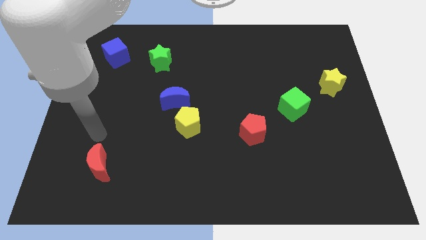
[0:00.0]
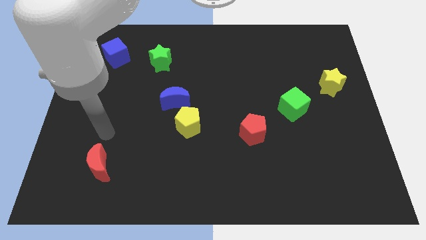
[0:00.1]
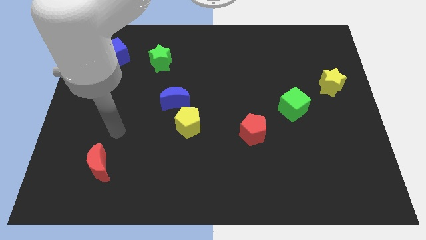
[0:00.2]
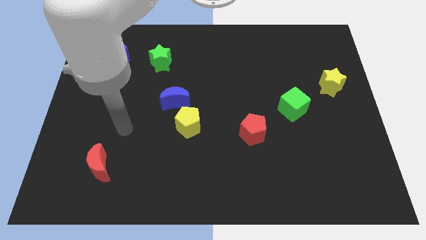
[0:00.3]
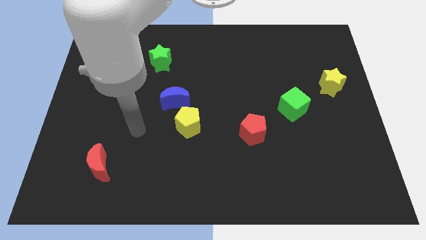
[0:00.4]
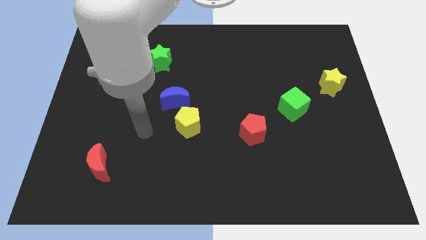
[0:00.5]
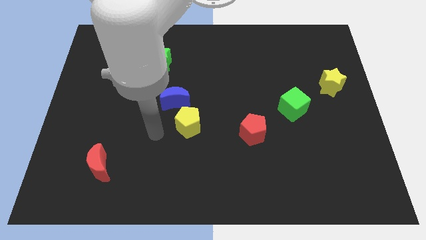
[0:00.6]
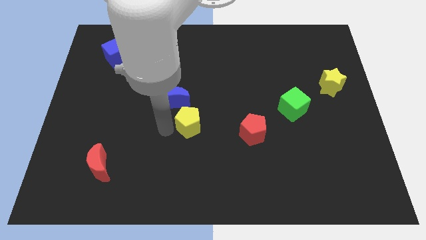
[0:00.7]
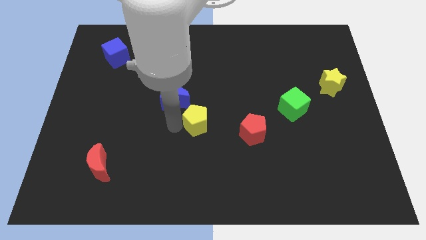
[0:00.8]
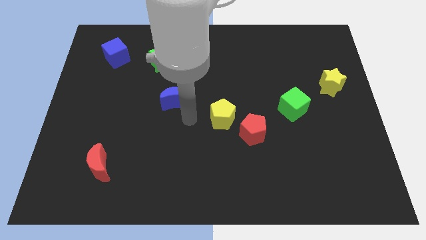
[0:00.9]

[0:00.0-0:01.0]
move the blue moon away from the yellow pentagon

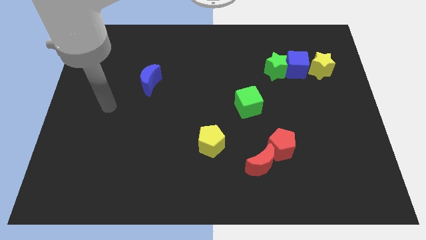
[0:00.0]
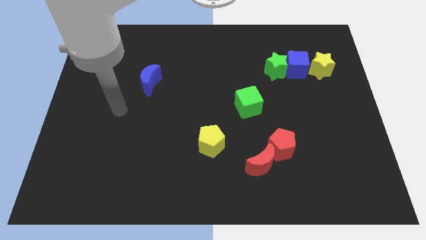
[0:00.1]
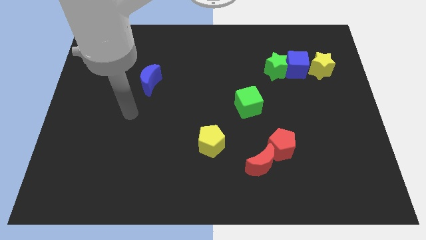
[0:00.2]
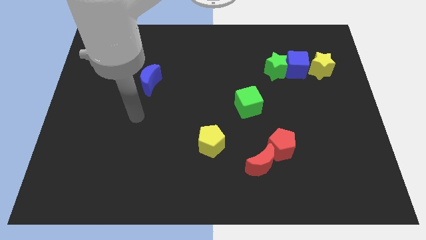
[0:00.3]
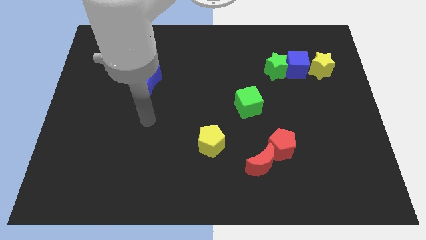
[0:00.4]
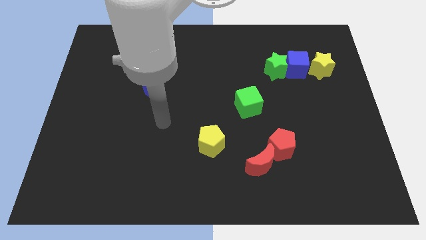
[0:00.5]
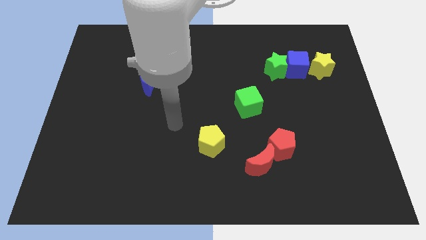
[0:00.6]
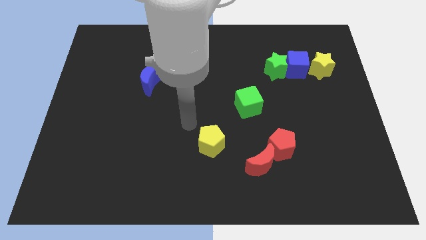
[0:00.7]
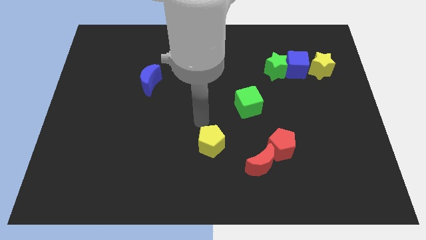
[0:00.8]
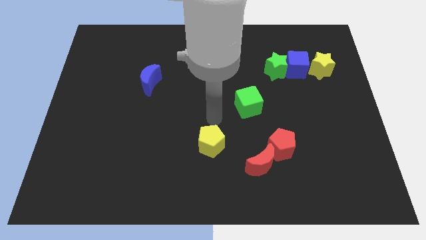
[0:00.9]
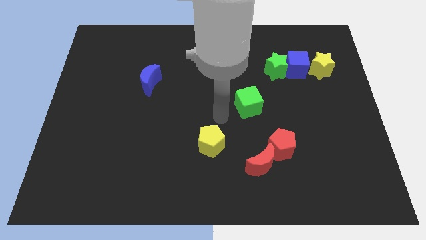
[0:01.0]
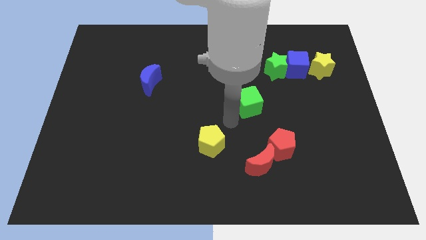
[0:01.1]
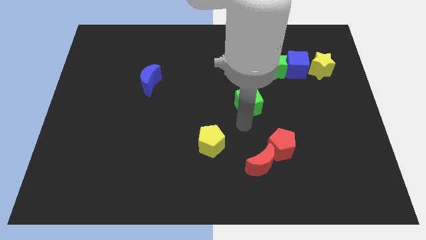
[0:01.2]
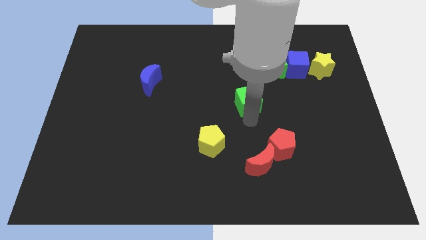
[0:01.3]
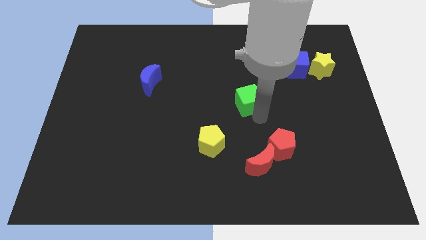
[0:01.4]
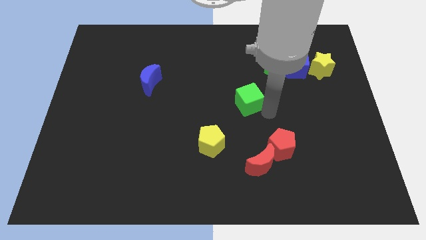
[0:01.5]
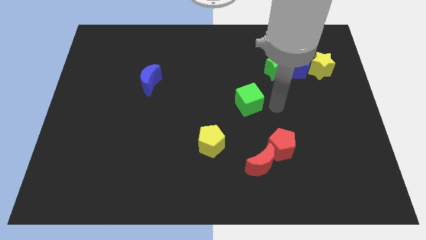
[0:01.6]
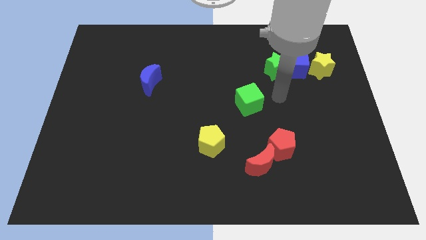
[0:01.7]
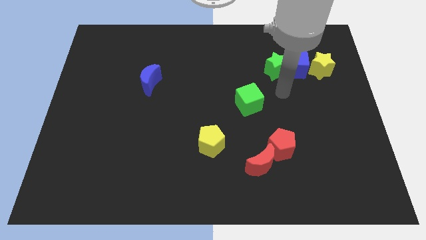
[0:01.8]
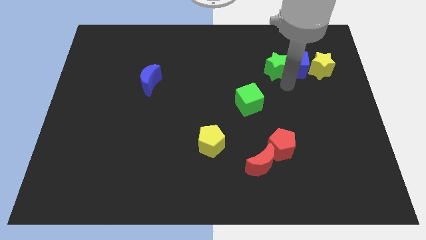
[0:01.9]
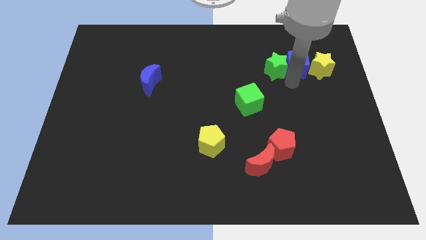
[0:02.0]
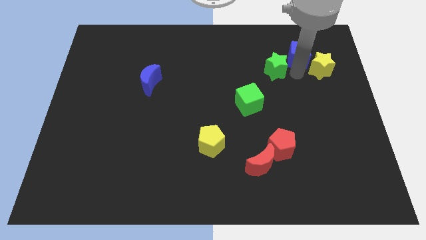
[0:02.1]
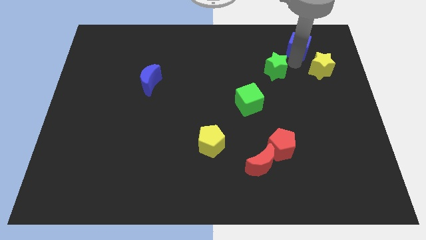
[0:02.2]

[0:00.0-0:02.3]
pull the green star apart from the blue cube

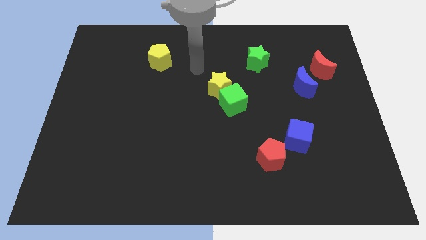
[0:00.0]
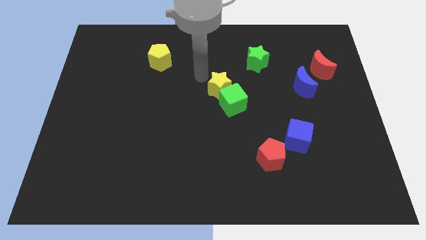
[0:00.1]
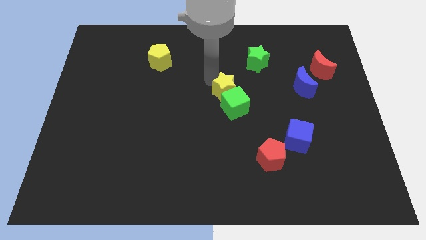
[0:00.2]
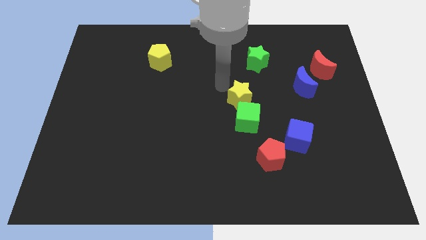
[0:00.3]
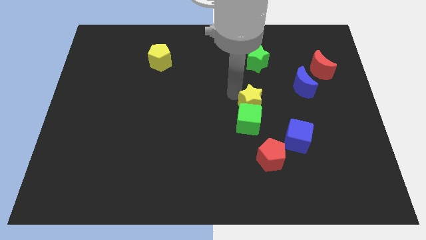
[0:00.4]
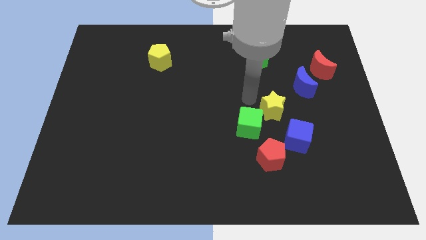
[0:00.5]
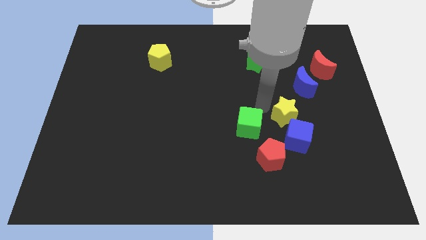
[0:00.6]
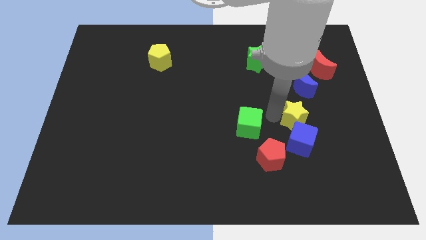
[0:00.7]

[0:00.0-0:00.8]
separate the green cube from the yellow star

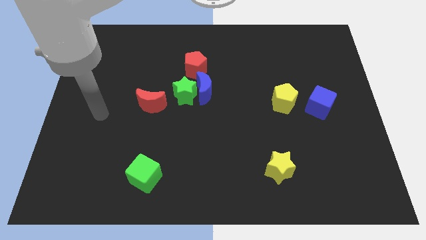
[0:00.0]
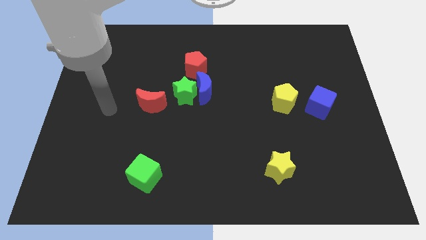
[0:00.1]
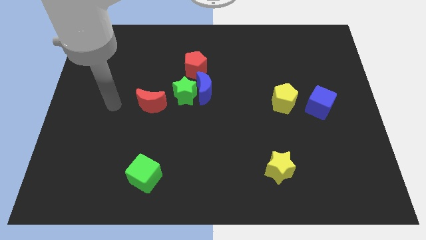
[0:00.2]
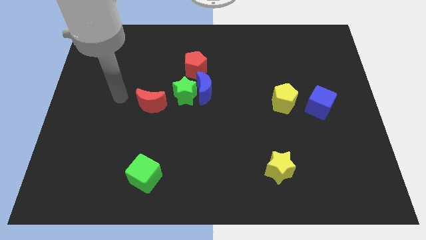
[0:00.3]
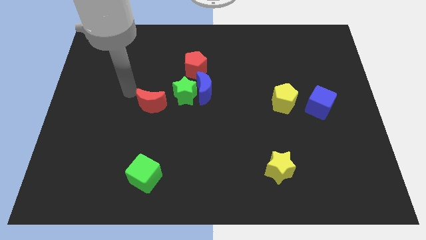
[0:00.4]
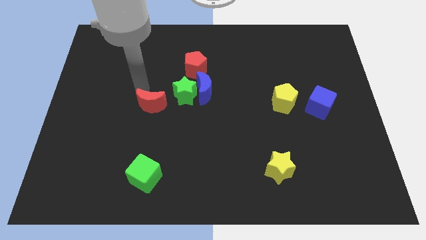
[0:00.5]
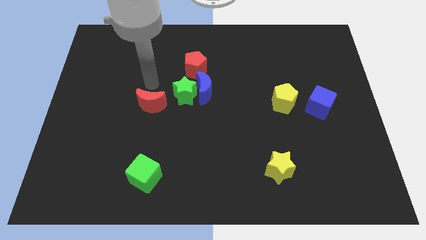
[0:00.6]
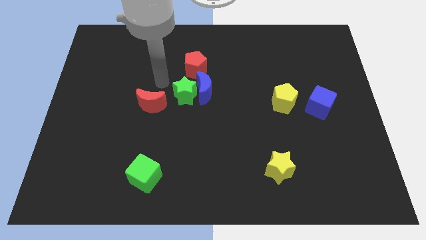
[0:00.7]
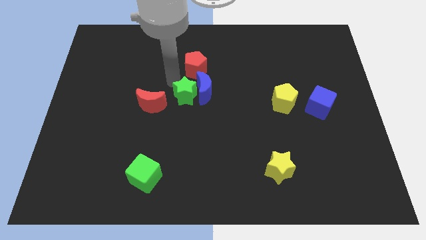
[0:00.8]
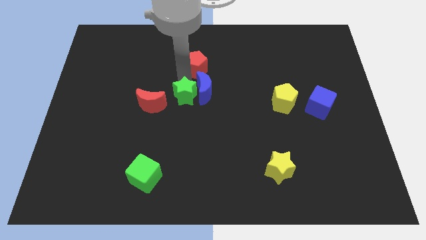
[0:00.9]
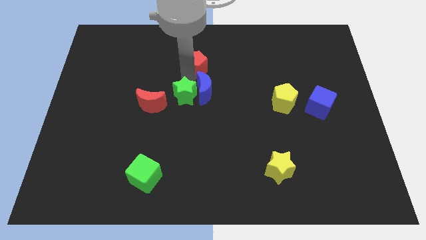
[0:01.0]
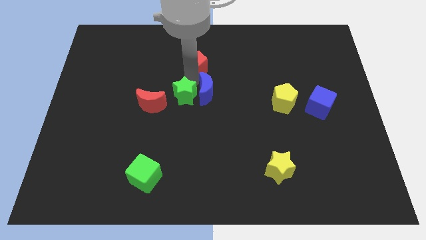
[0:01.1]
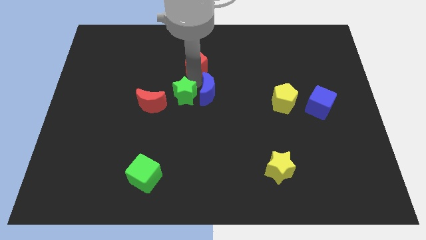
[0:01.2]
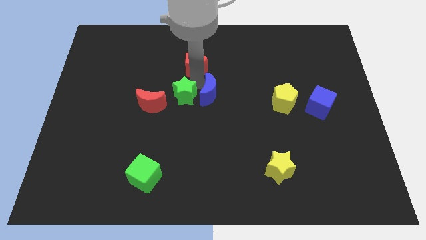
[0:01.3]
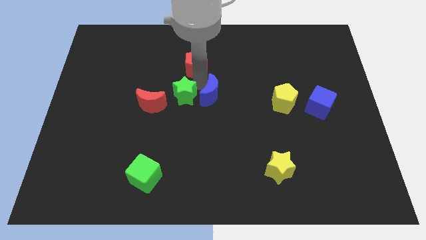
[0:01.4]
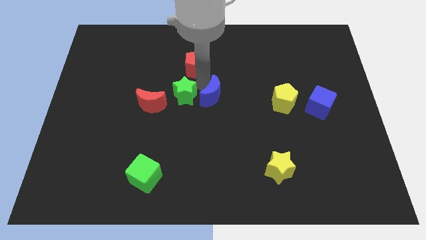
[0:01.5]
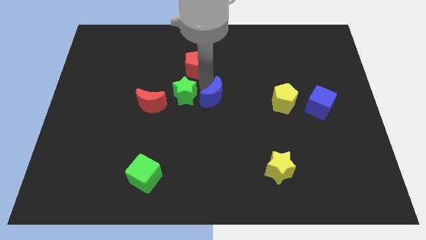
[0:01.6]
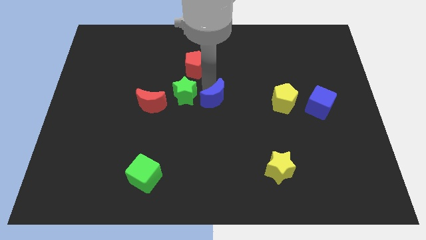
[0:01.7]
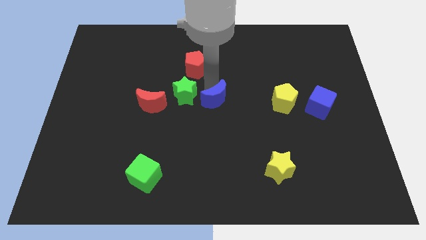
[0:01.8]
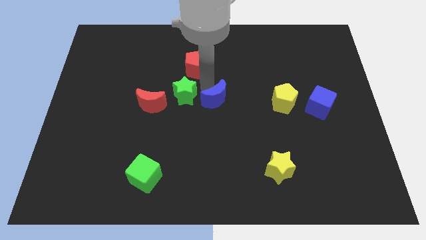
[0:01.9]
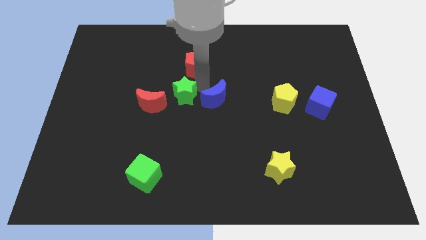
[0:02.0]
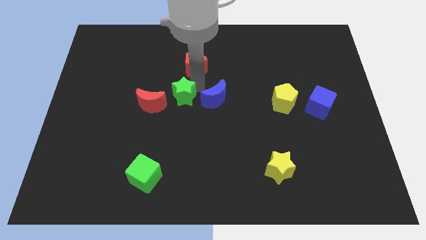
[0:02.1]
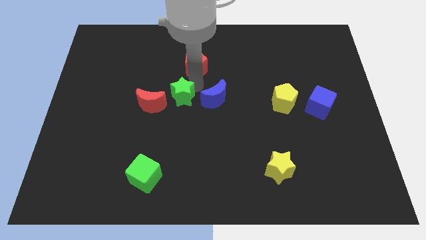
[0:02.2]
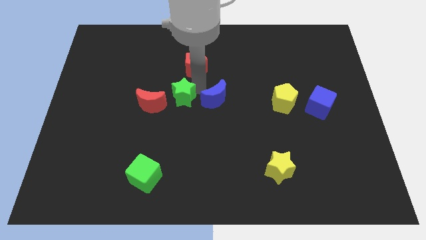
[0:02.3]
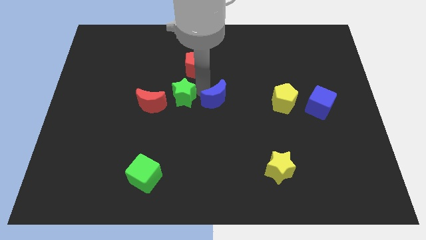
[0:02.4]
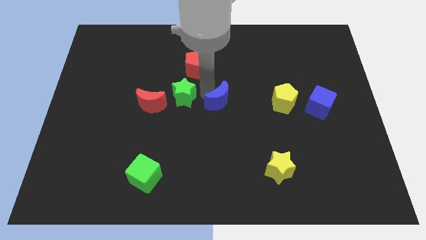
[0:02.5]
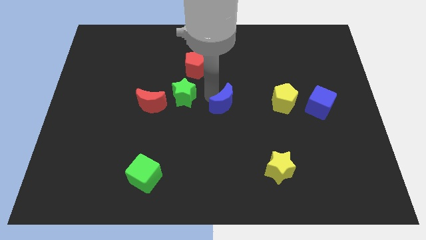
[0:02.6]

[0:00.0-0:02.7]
separate the blue moon from the green star and red pentagon

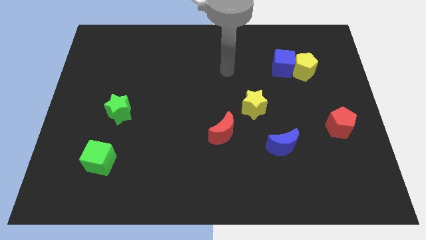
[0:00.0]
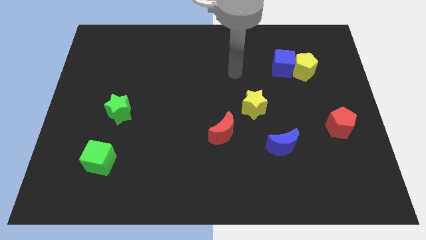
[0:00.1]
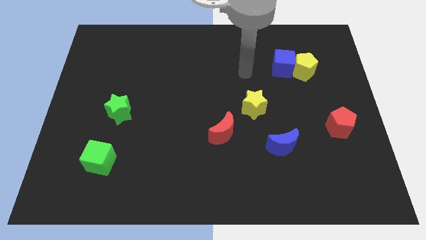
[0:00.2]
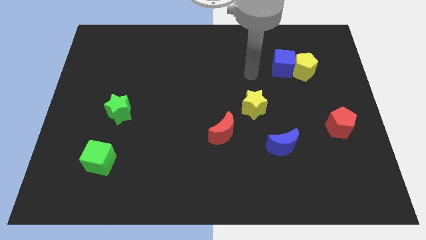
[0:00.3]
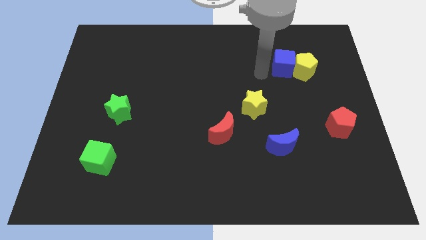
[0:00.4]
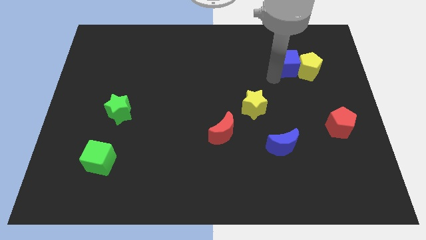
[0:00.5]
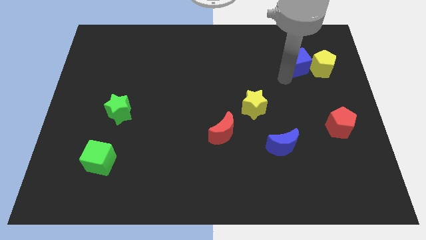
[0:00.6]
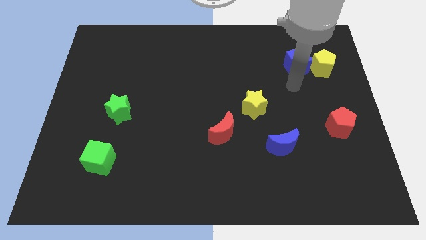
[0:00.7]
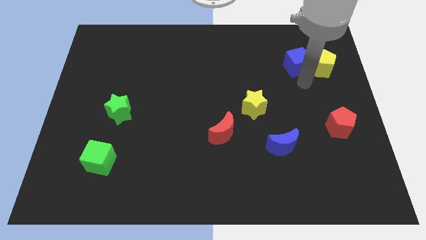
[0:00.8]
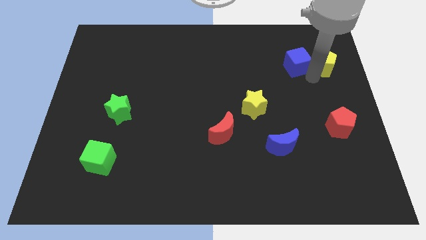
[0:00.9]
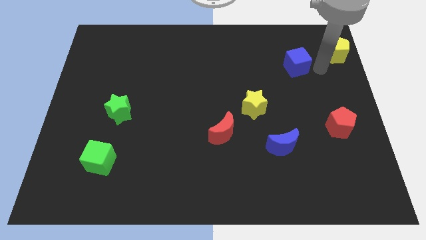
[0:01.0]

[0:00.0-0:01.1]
move the blue cube away from the yellow pentagon

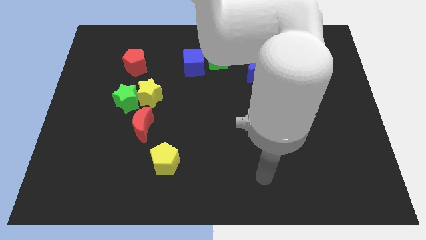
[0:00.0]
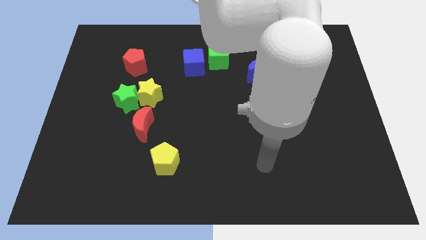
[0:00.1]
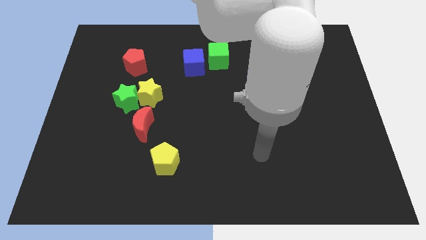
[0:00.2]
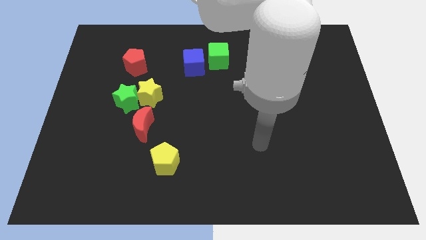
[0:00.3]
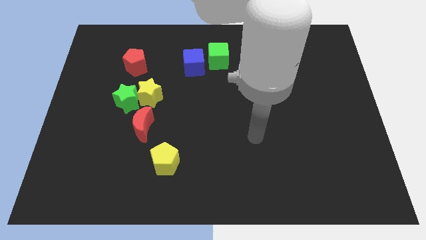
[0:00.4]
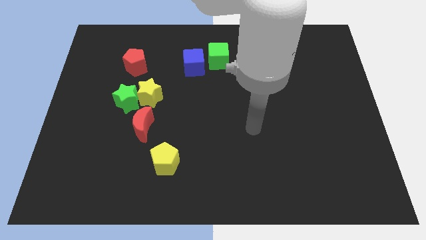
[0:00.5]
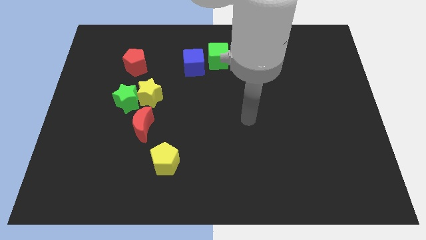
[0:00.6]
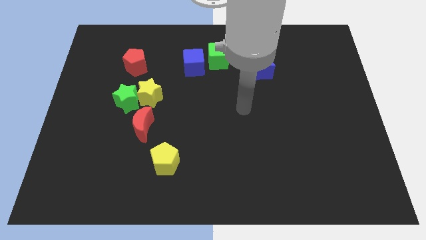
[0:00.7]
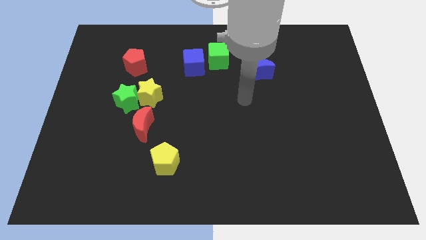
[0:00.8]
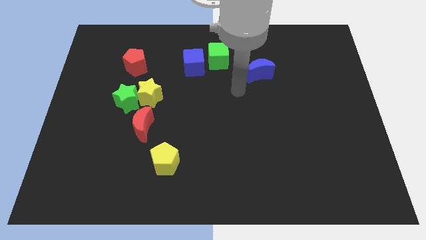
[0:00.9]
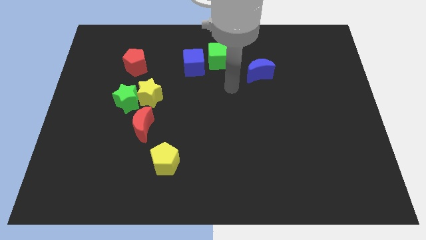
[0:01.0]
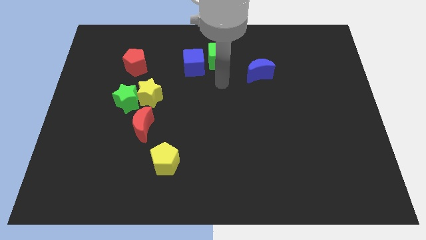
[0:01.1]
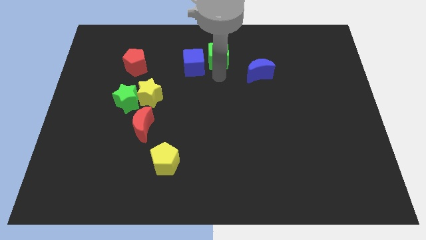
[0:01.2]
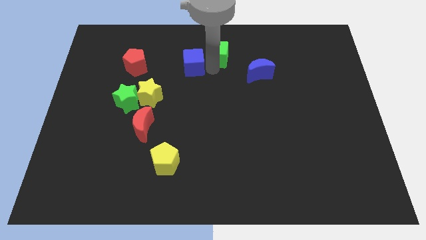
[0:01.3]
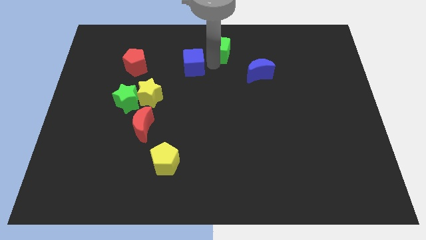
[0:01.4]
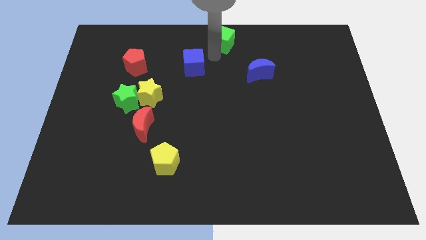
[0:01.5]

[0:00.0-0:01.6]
separate the blue cube from the green cube
